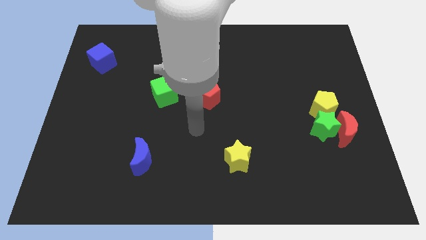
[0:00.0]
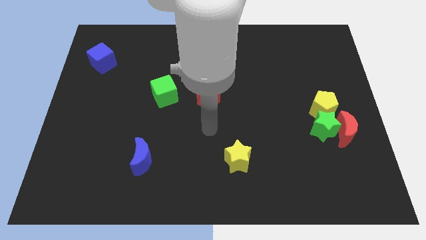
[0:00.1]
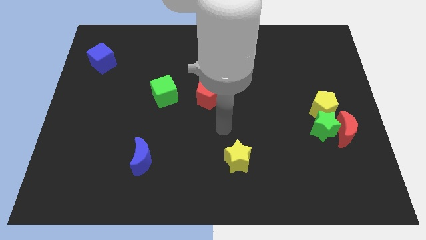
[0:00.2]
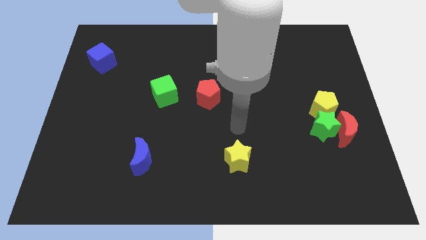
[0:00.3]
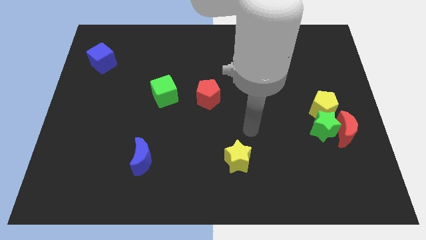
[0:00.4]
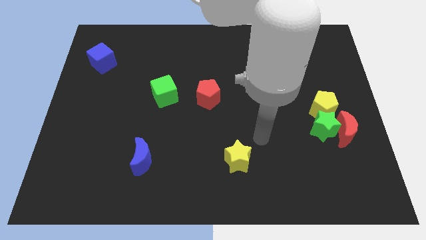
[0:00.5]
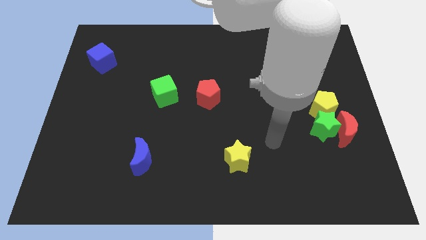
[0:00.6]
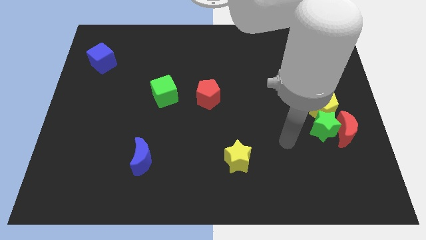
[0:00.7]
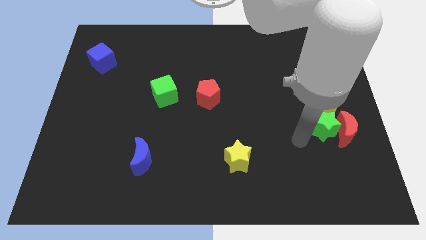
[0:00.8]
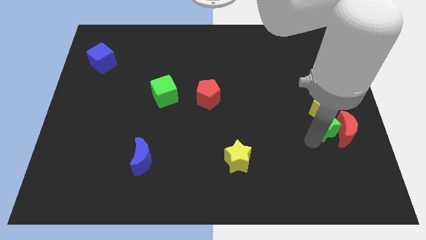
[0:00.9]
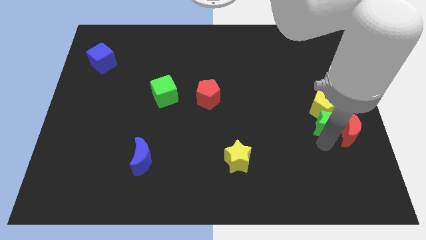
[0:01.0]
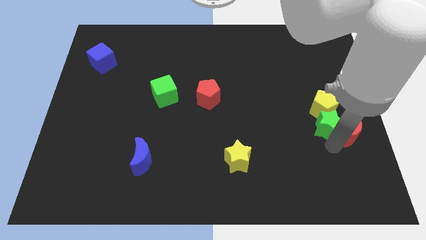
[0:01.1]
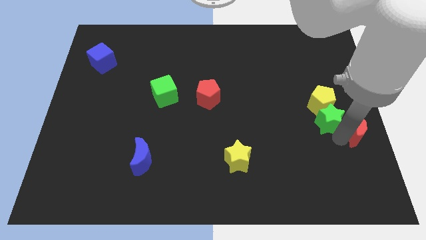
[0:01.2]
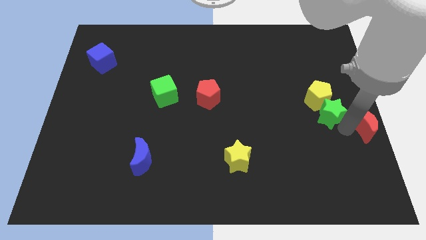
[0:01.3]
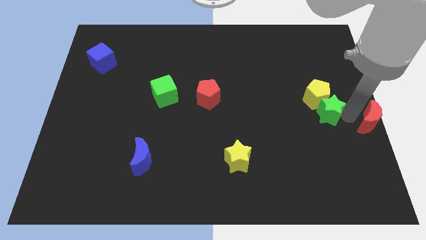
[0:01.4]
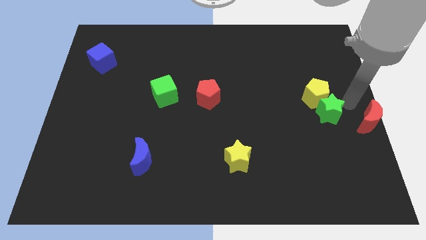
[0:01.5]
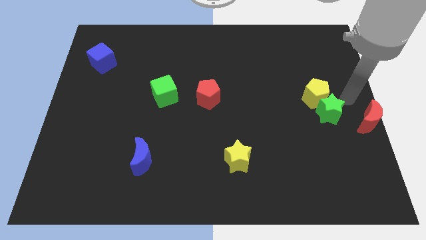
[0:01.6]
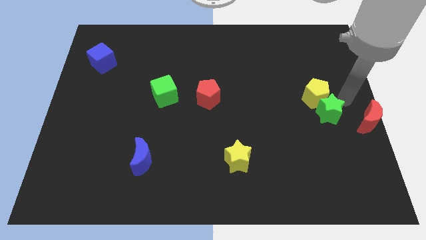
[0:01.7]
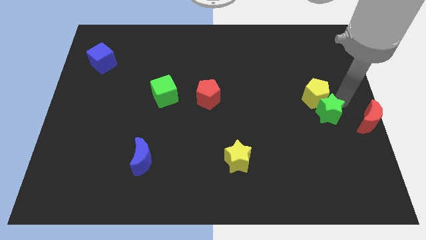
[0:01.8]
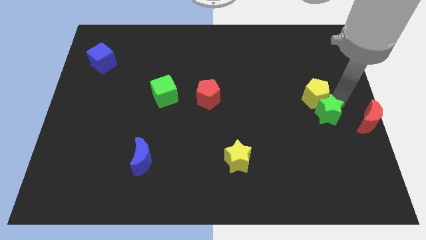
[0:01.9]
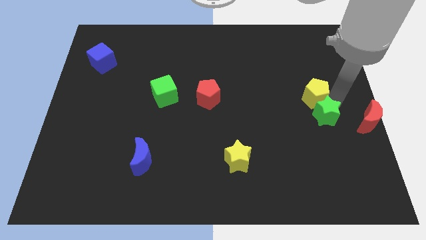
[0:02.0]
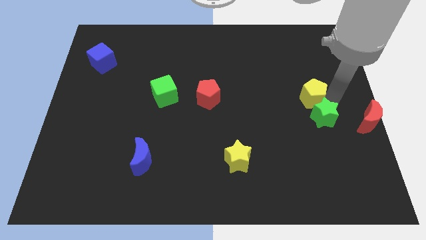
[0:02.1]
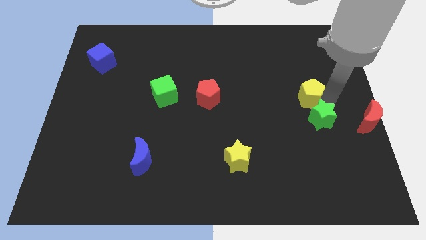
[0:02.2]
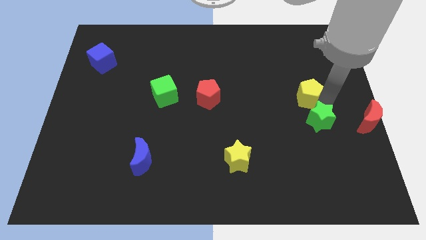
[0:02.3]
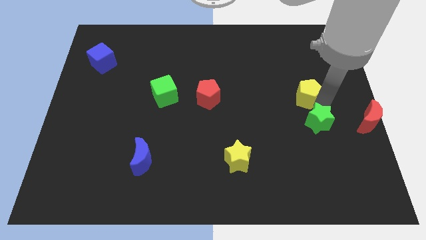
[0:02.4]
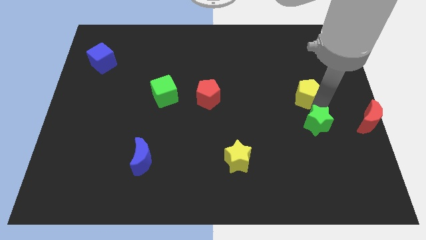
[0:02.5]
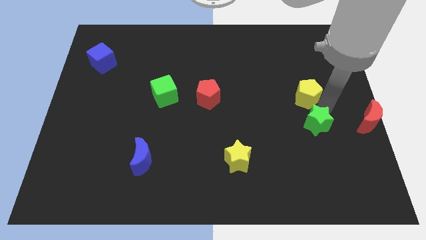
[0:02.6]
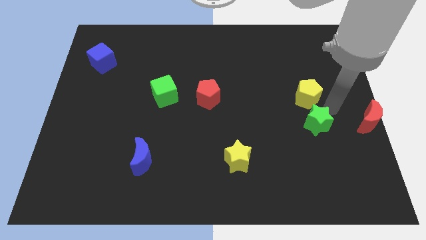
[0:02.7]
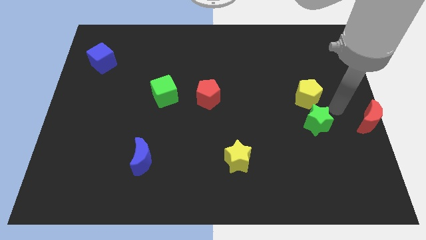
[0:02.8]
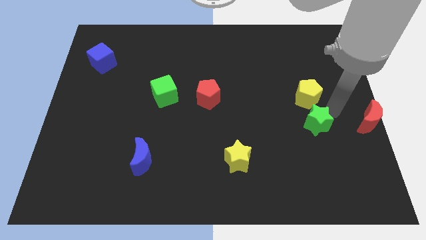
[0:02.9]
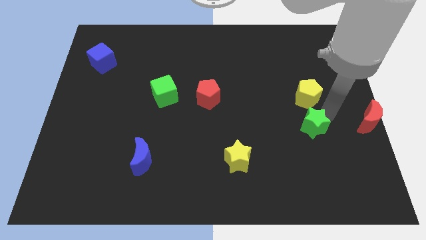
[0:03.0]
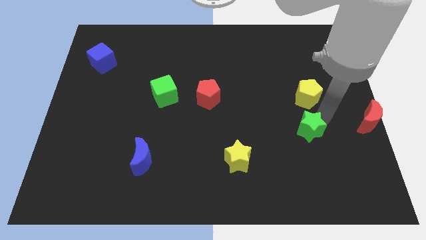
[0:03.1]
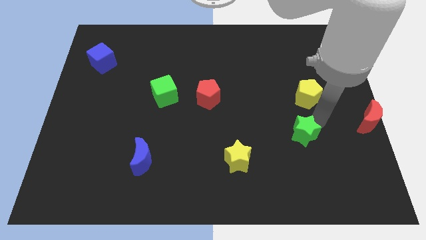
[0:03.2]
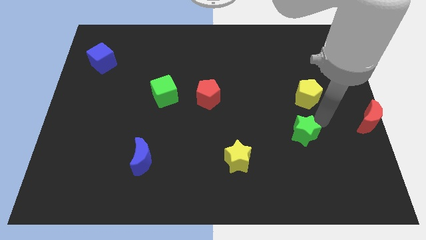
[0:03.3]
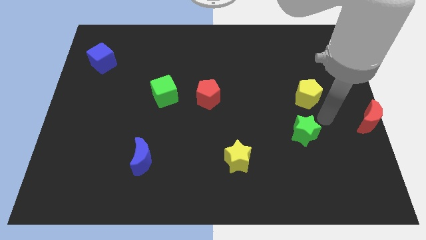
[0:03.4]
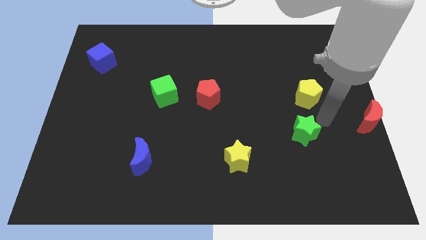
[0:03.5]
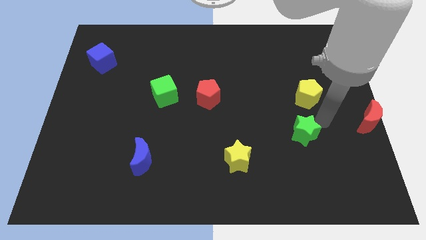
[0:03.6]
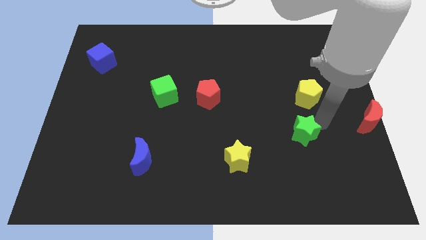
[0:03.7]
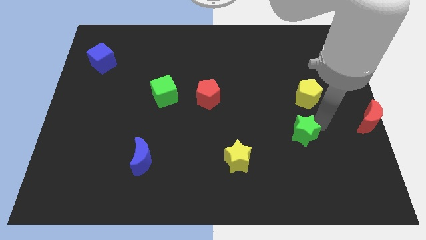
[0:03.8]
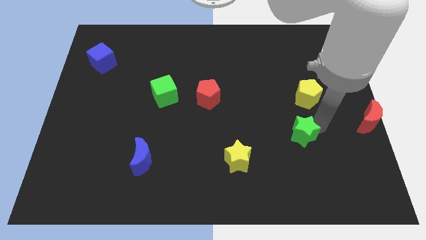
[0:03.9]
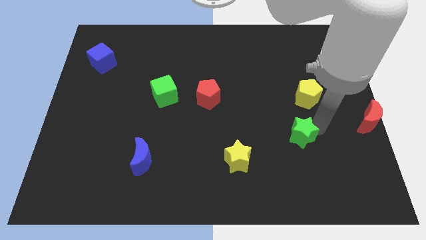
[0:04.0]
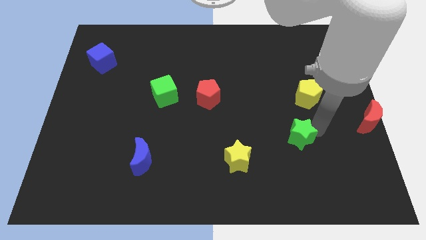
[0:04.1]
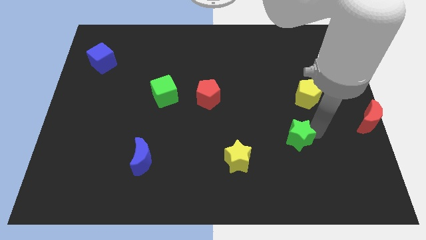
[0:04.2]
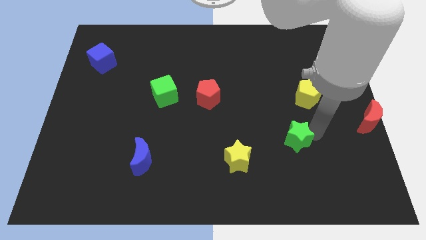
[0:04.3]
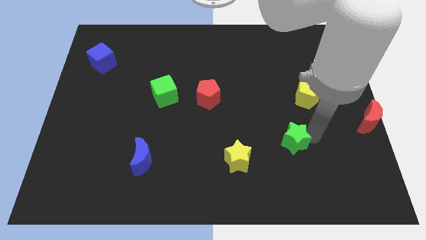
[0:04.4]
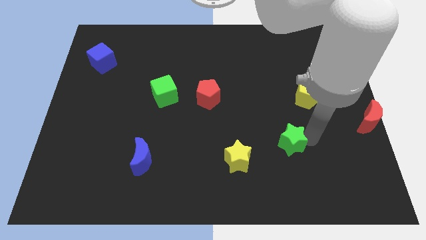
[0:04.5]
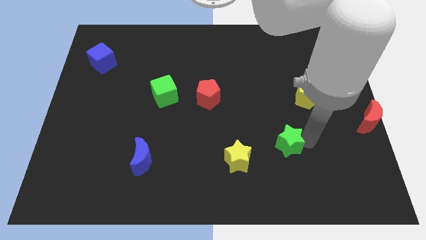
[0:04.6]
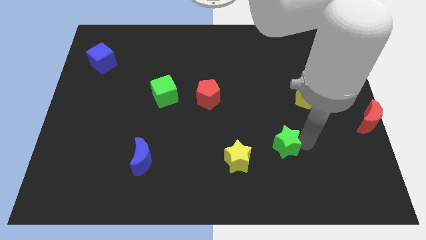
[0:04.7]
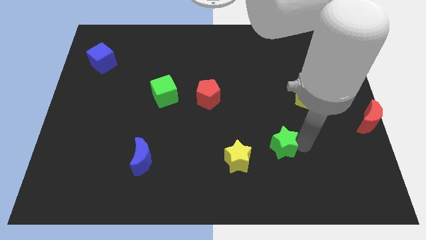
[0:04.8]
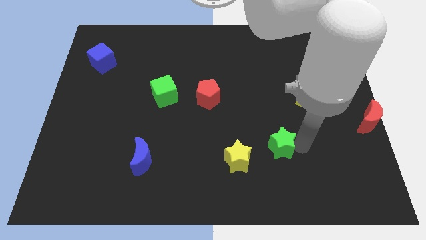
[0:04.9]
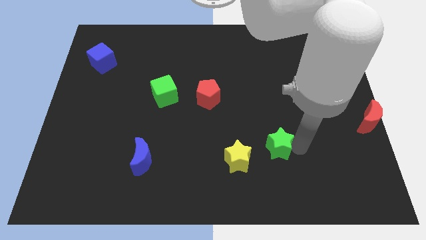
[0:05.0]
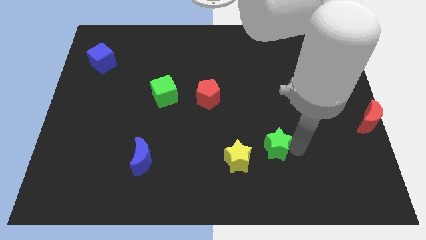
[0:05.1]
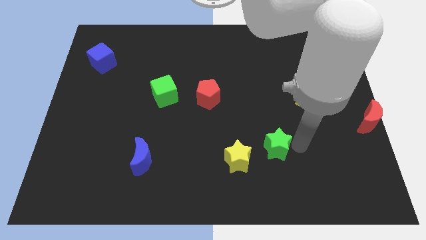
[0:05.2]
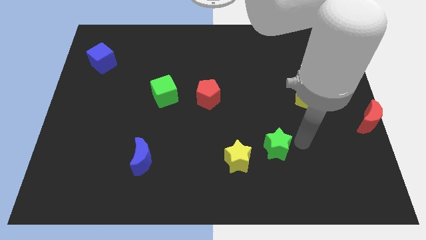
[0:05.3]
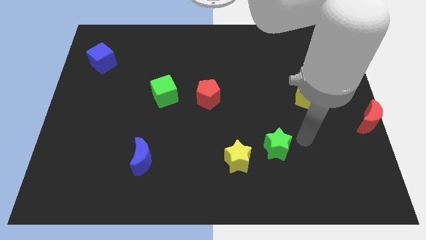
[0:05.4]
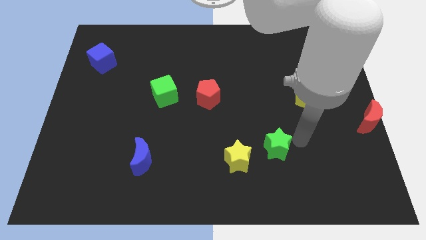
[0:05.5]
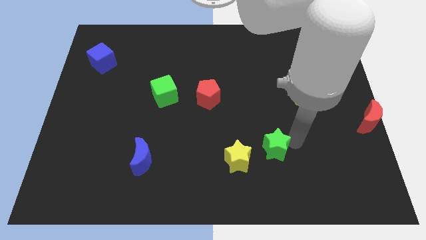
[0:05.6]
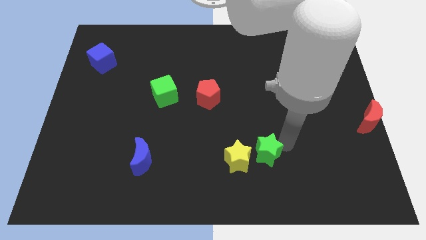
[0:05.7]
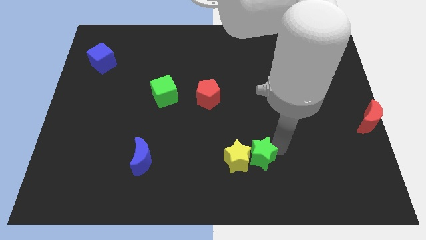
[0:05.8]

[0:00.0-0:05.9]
move the green star to the yellow star

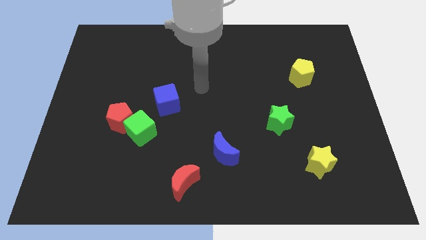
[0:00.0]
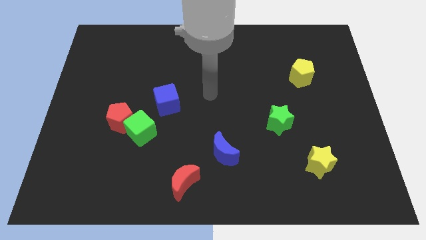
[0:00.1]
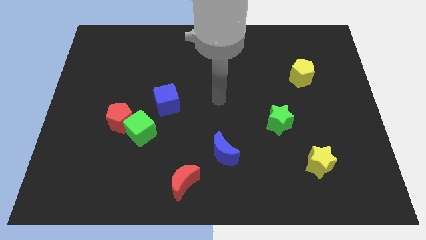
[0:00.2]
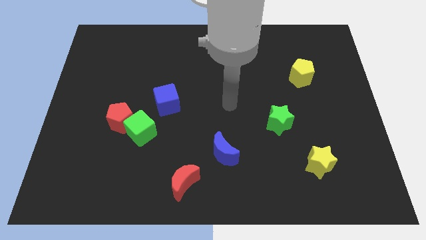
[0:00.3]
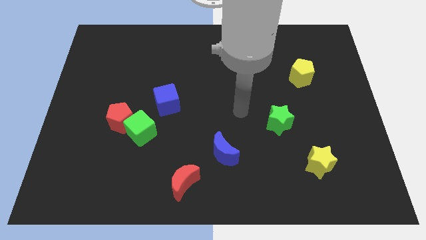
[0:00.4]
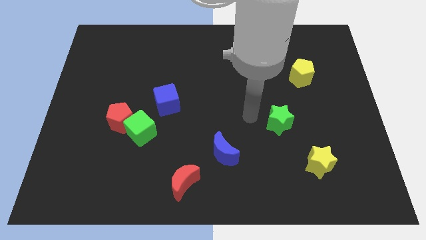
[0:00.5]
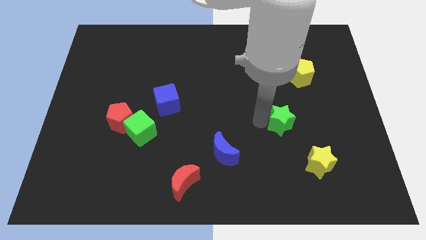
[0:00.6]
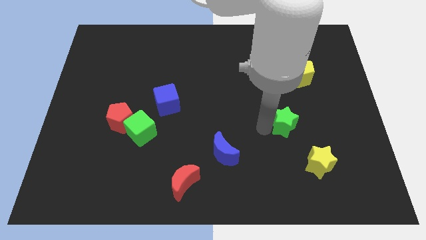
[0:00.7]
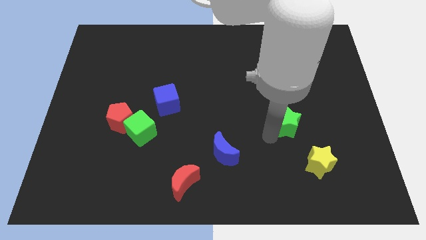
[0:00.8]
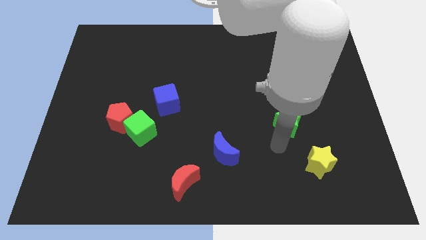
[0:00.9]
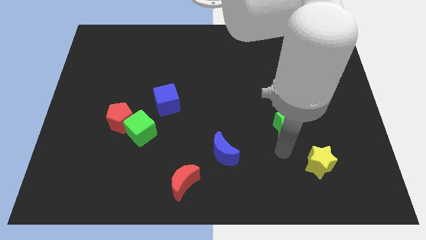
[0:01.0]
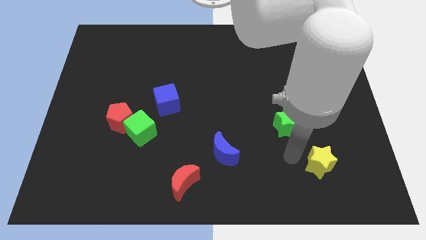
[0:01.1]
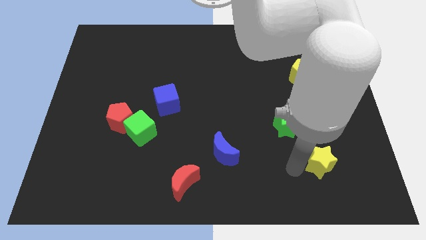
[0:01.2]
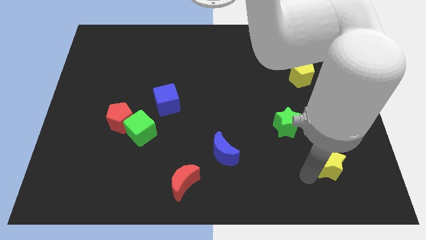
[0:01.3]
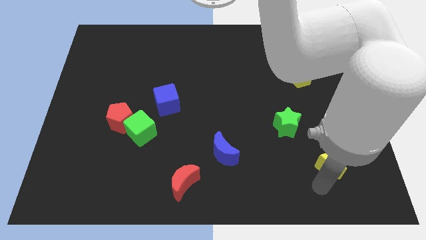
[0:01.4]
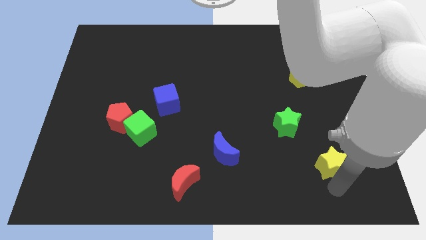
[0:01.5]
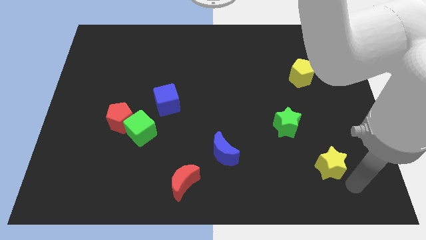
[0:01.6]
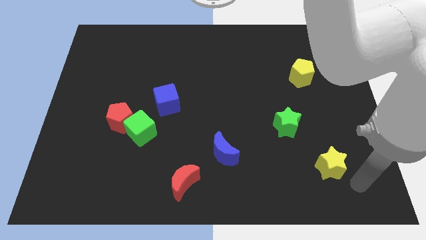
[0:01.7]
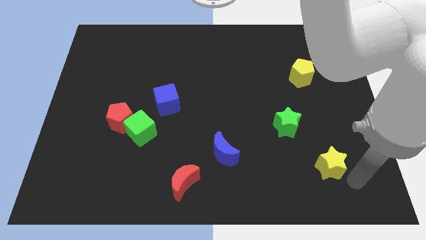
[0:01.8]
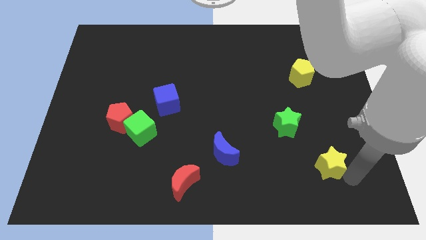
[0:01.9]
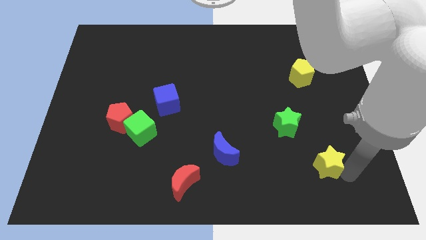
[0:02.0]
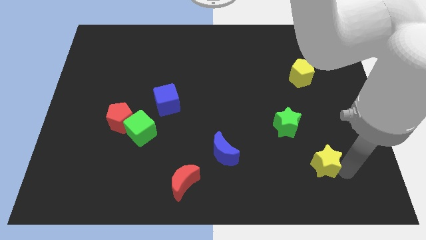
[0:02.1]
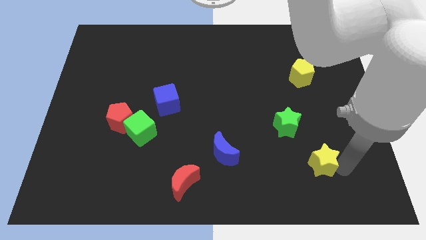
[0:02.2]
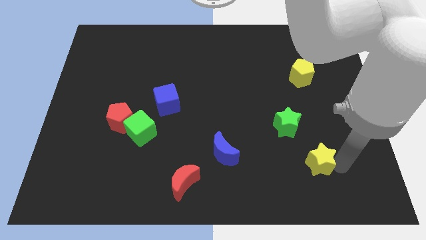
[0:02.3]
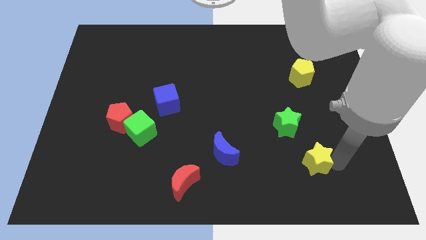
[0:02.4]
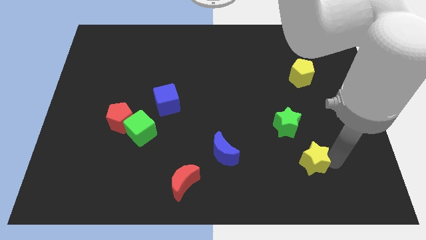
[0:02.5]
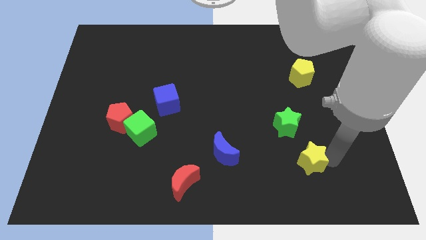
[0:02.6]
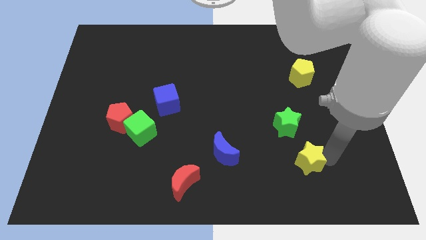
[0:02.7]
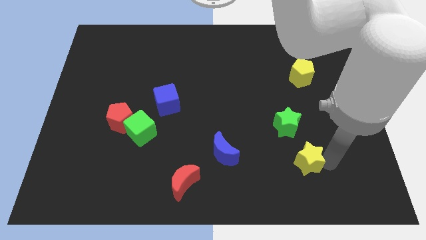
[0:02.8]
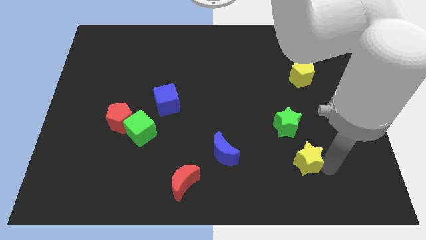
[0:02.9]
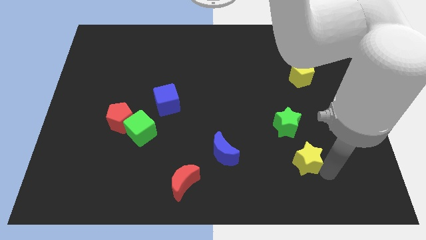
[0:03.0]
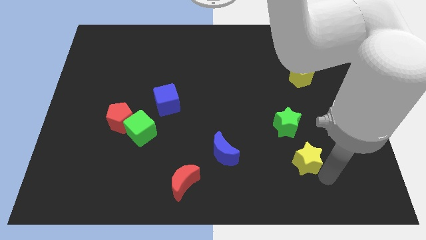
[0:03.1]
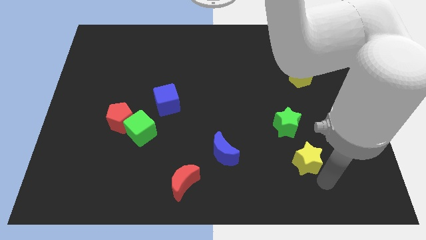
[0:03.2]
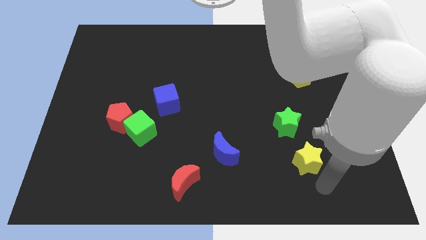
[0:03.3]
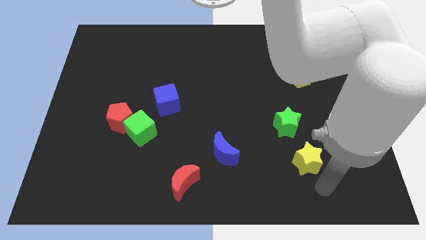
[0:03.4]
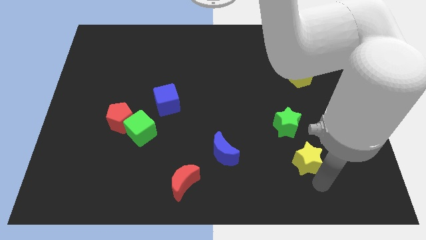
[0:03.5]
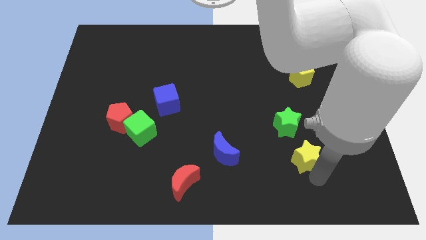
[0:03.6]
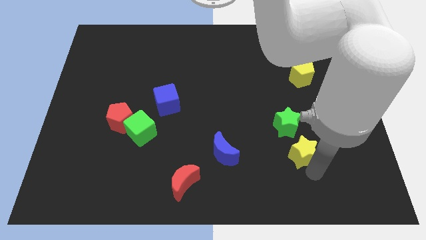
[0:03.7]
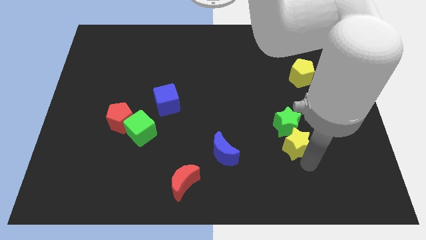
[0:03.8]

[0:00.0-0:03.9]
slide the yellow star close to the green star
